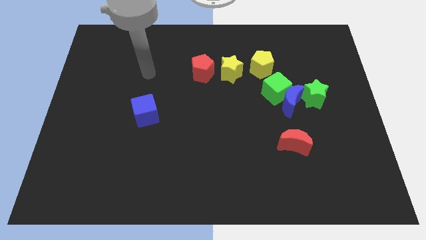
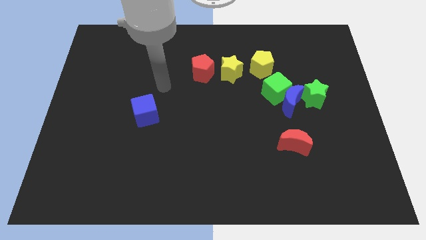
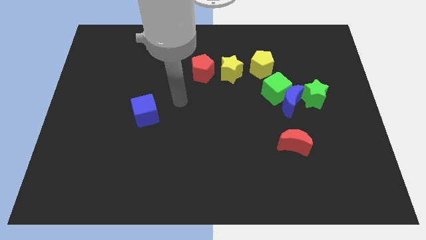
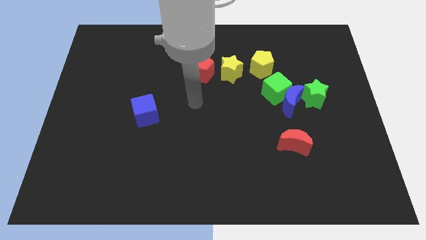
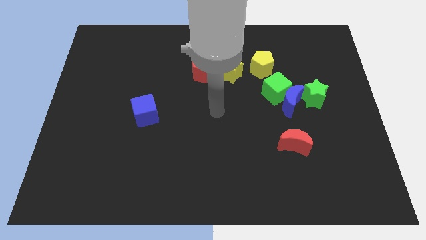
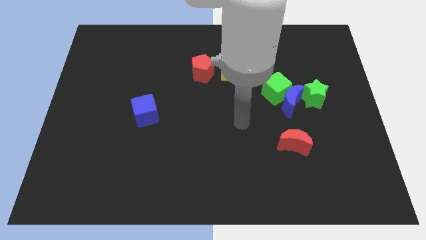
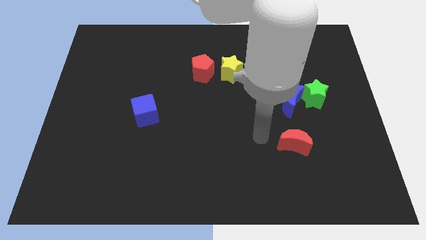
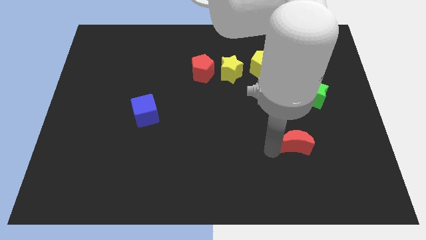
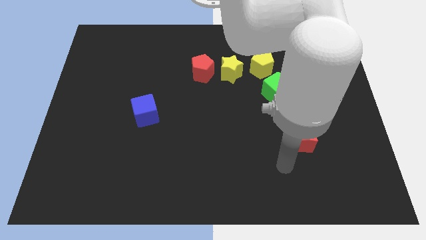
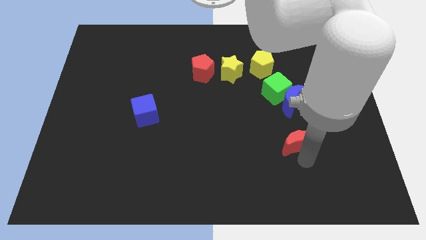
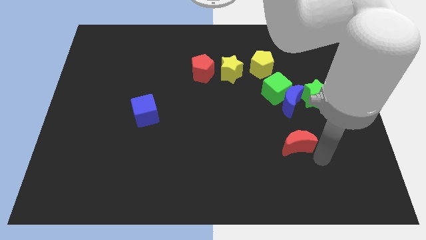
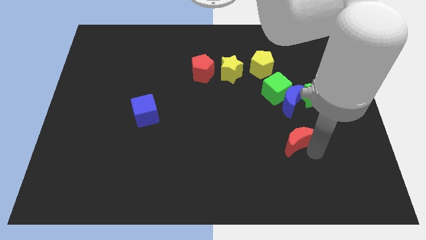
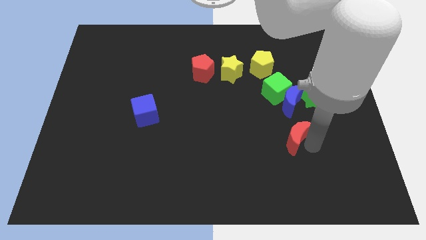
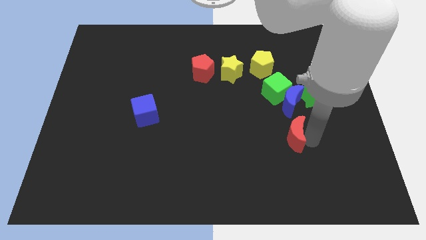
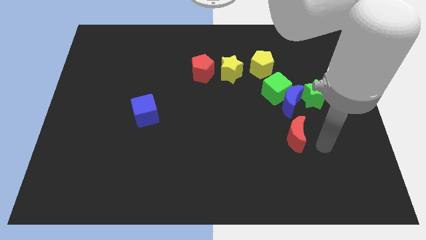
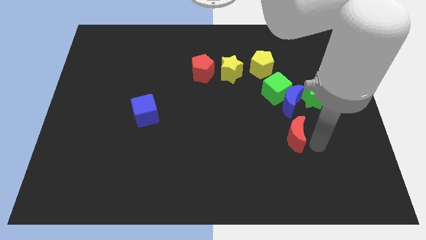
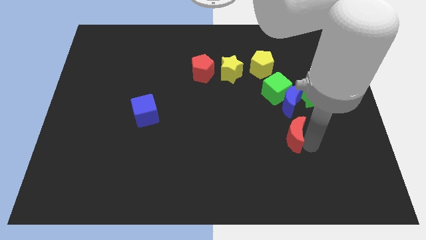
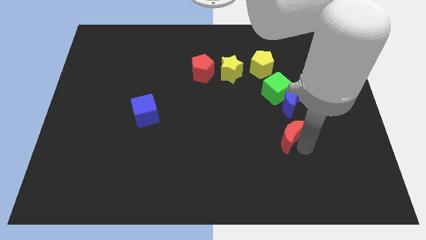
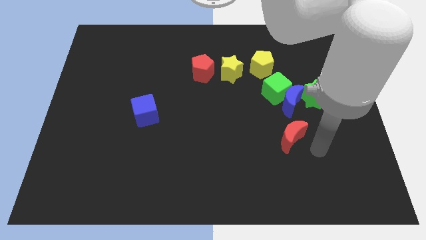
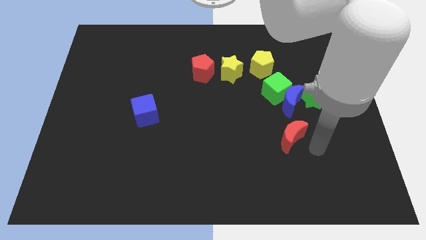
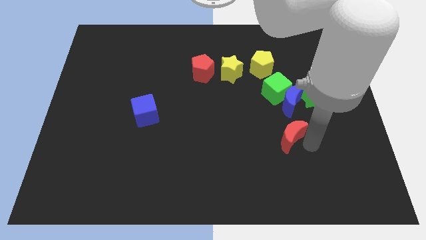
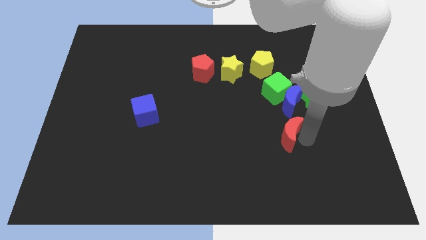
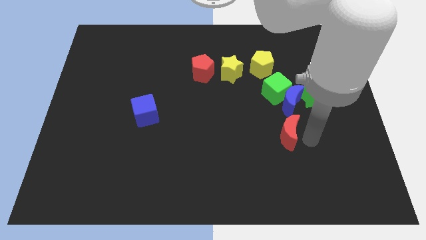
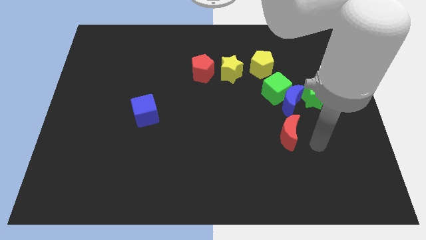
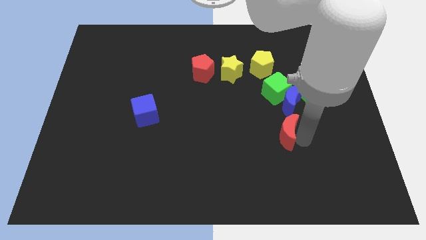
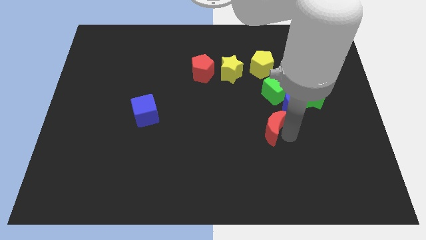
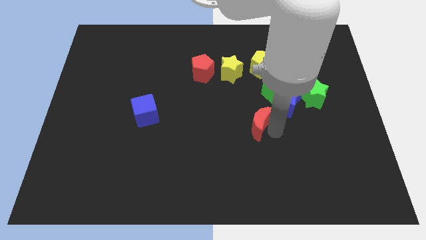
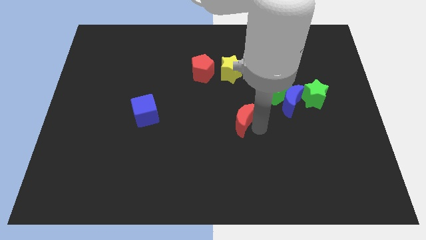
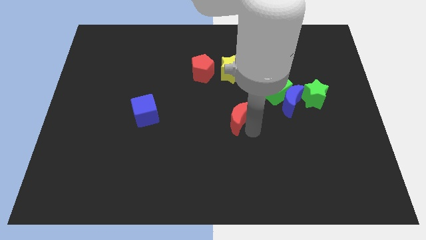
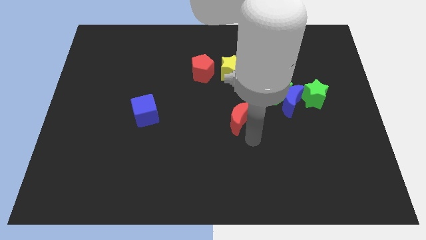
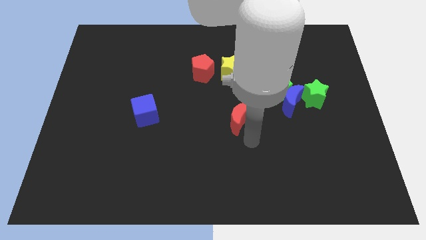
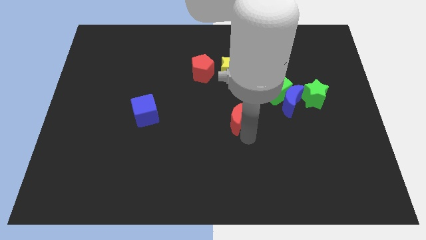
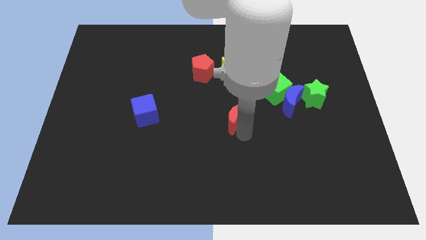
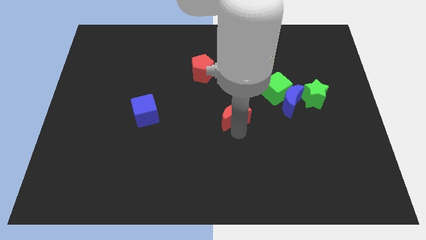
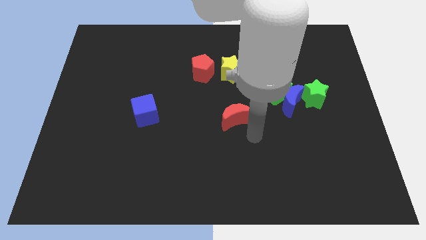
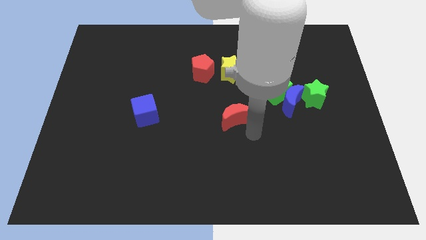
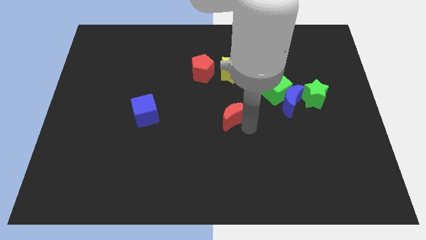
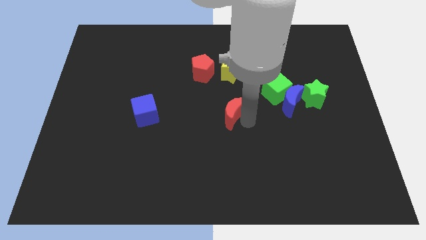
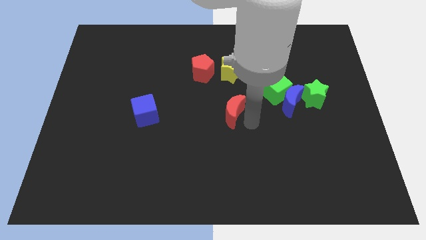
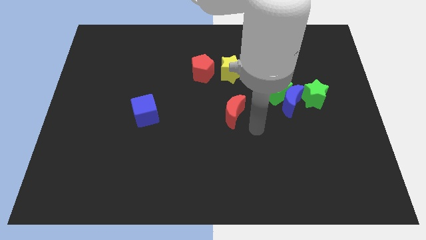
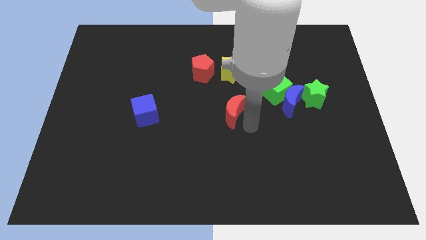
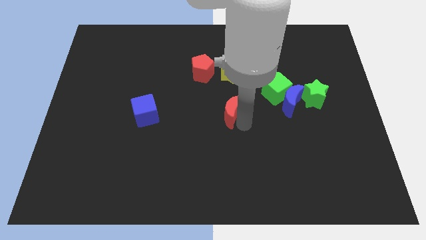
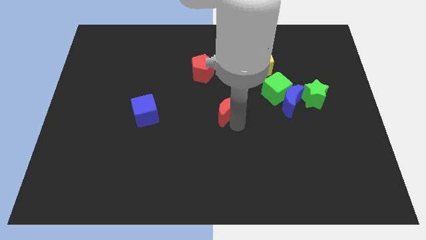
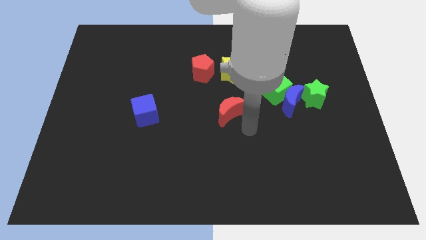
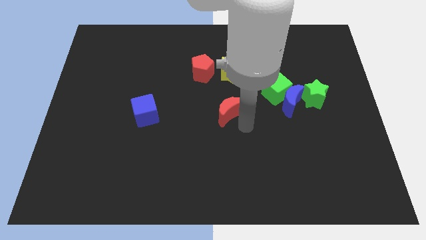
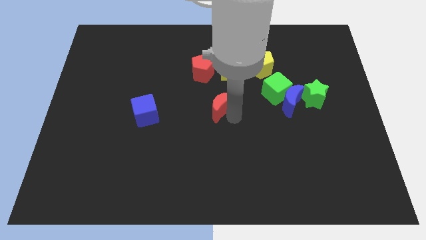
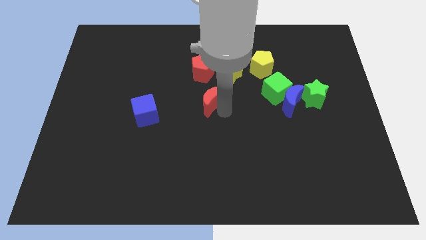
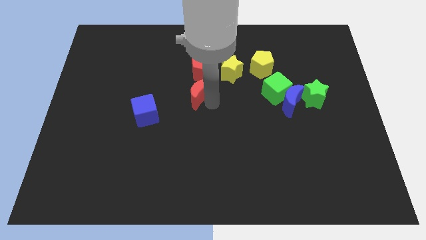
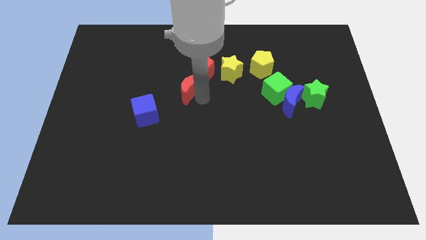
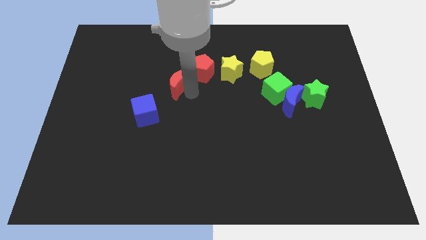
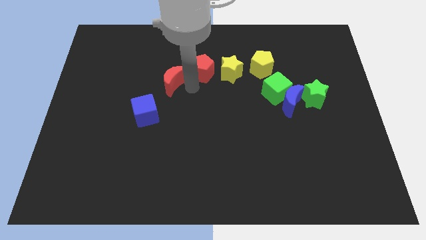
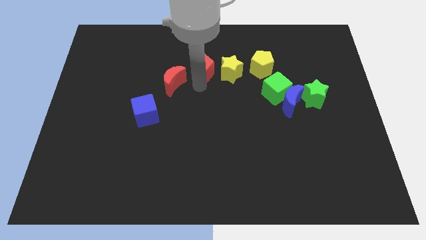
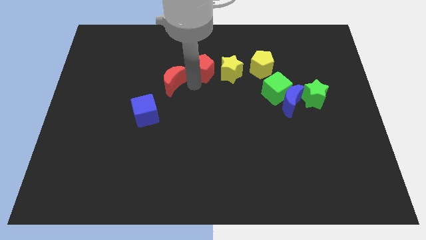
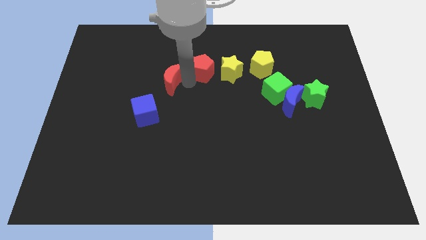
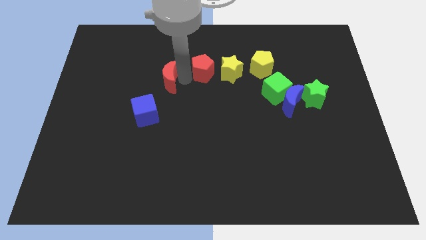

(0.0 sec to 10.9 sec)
slide the red moon to the top of the blue cube
